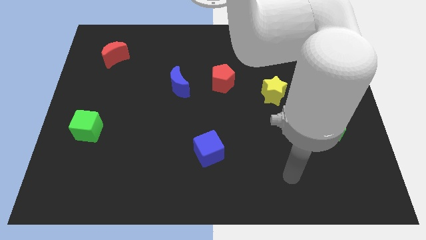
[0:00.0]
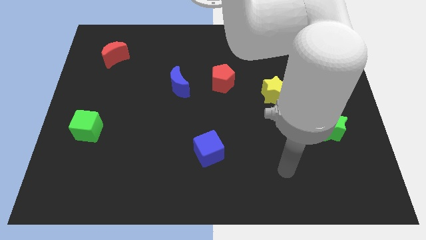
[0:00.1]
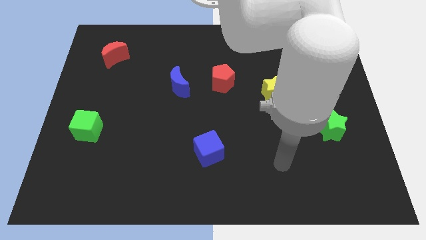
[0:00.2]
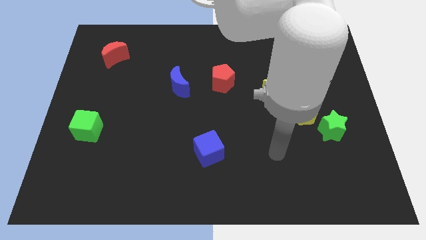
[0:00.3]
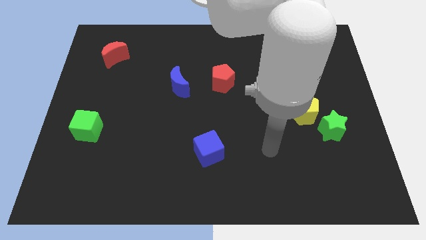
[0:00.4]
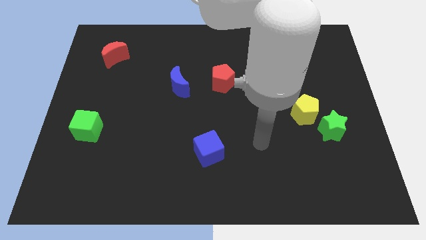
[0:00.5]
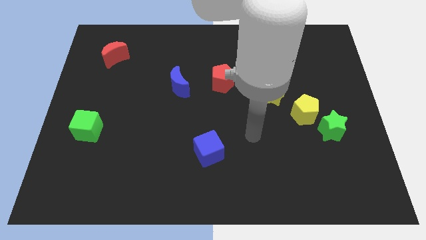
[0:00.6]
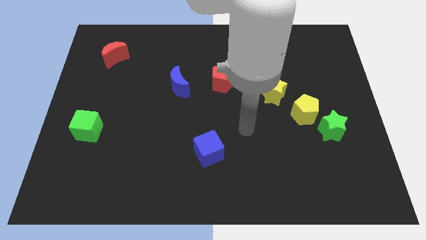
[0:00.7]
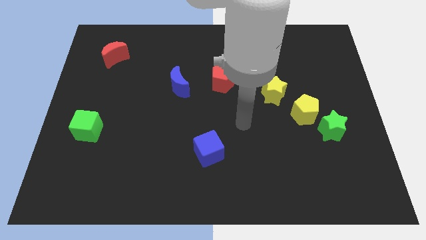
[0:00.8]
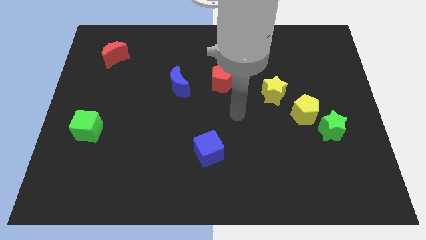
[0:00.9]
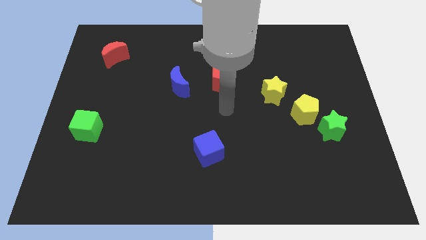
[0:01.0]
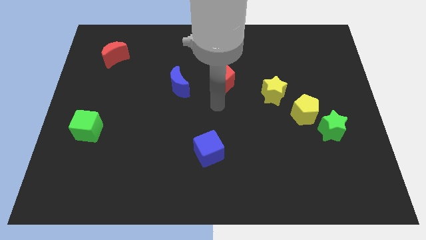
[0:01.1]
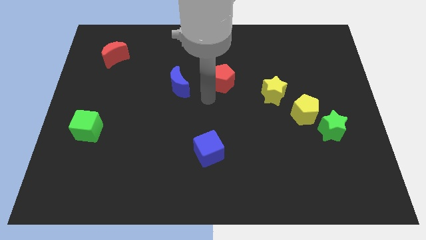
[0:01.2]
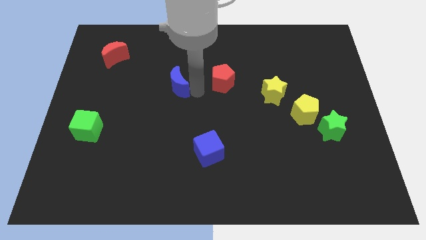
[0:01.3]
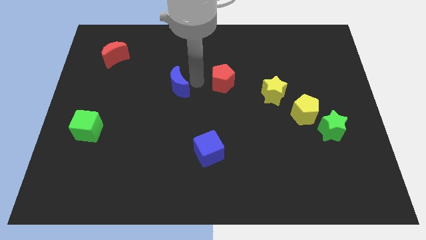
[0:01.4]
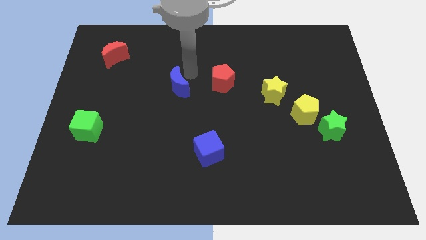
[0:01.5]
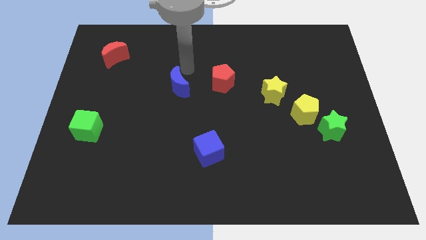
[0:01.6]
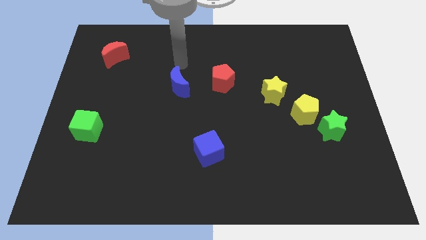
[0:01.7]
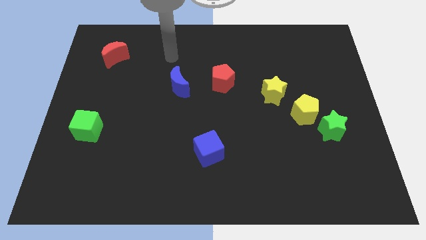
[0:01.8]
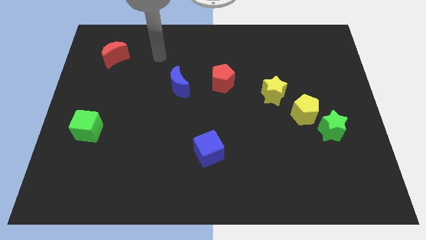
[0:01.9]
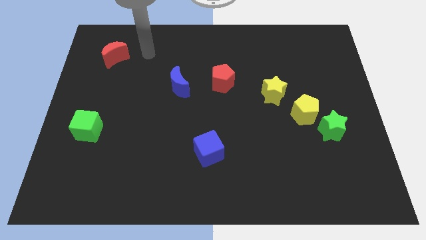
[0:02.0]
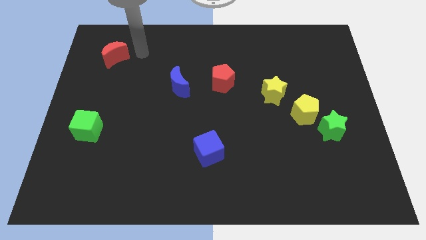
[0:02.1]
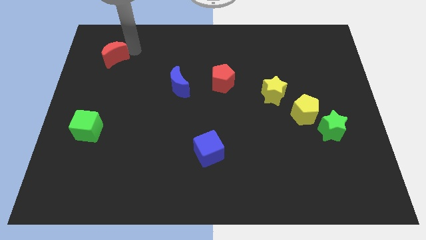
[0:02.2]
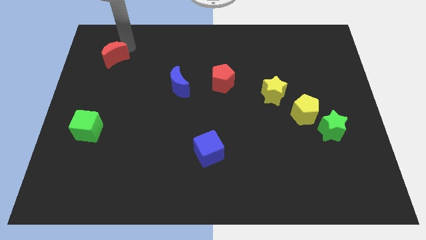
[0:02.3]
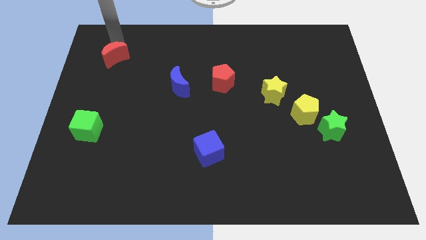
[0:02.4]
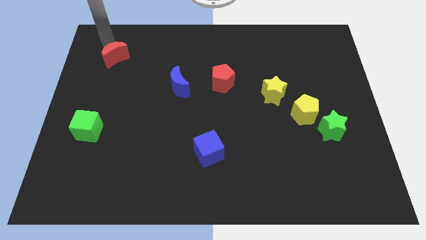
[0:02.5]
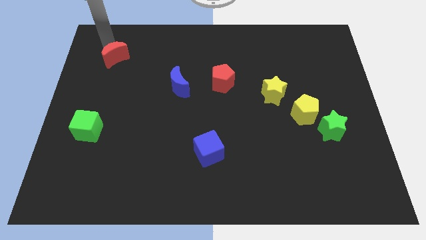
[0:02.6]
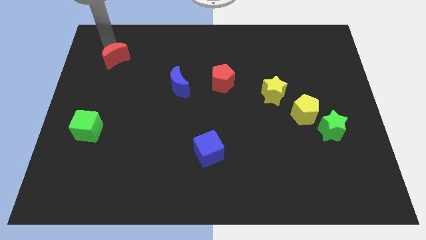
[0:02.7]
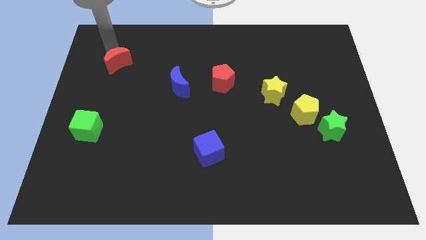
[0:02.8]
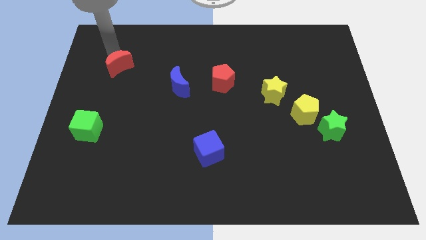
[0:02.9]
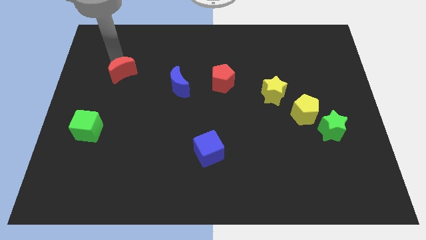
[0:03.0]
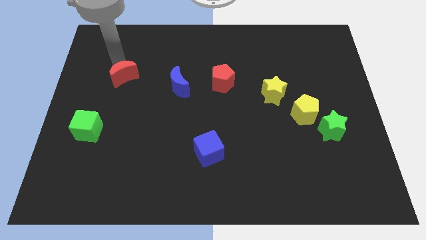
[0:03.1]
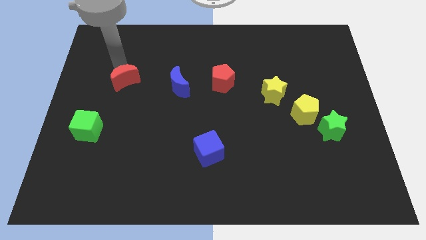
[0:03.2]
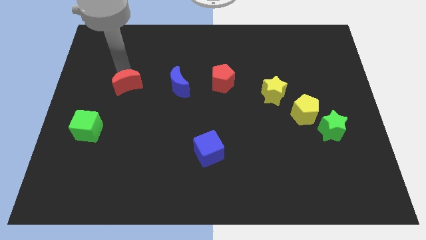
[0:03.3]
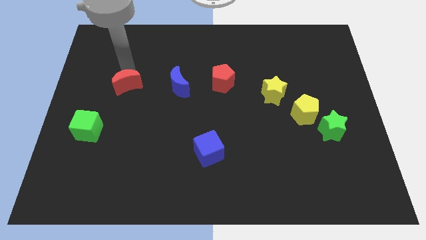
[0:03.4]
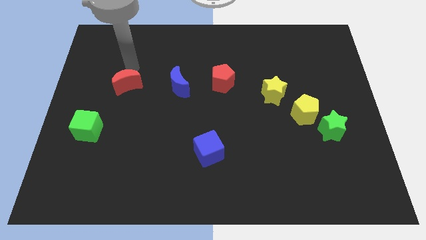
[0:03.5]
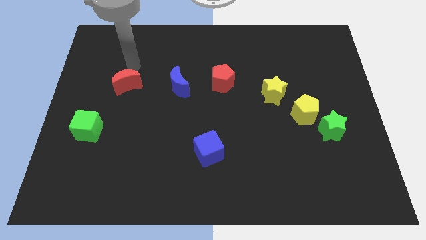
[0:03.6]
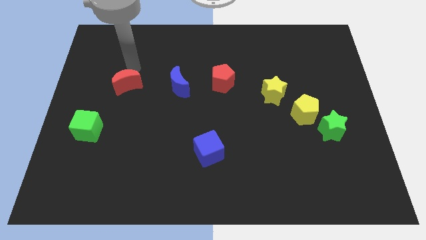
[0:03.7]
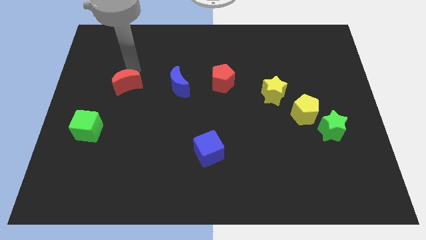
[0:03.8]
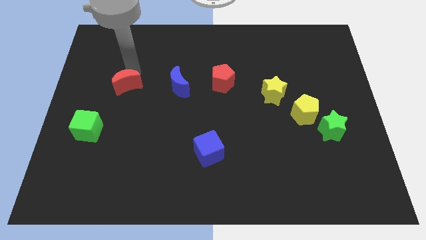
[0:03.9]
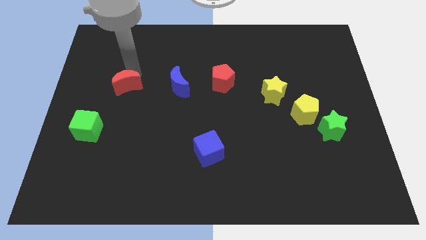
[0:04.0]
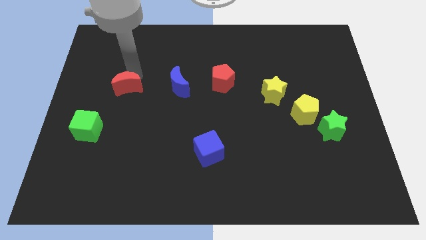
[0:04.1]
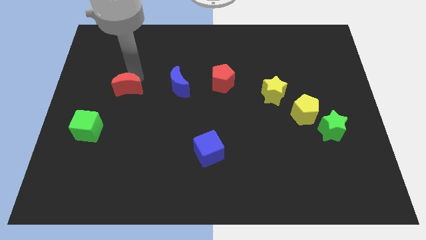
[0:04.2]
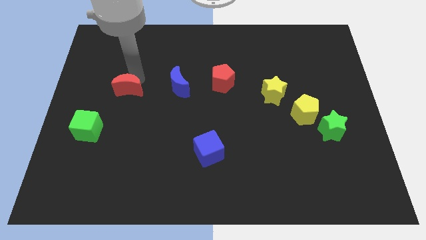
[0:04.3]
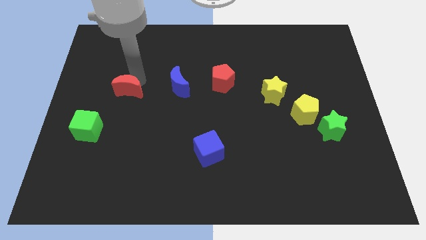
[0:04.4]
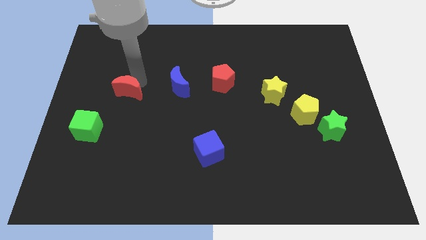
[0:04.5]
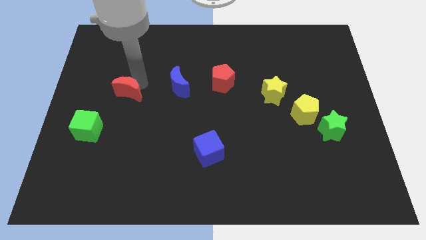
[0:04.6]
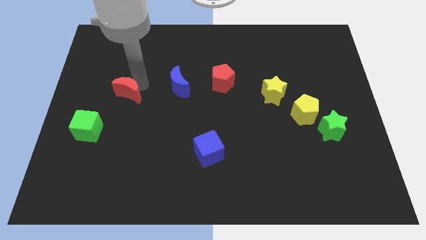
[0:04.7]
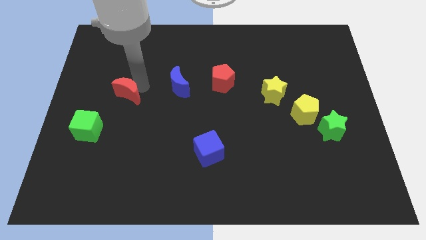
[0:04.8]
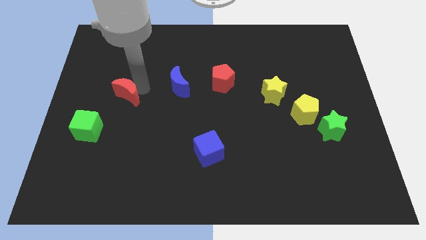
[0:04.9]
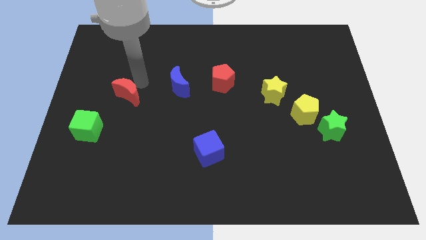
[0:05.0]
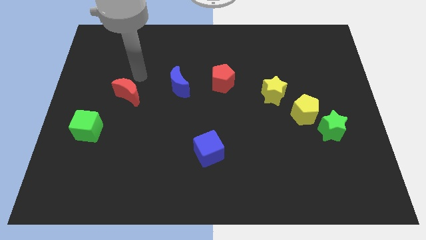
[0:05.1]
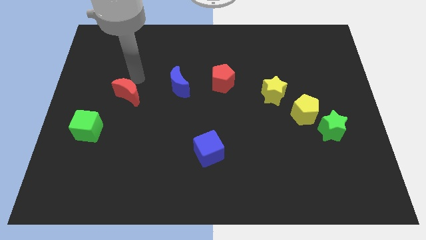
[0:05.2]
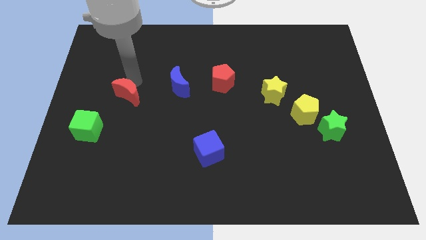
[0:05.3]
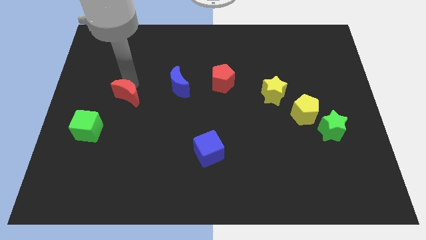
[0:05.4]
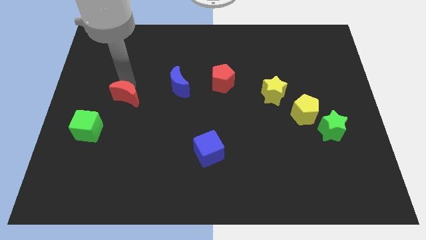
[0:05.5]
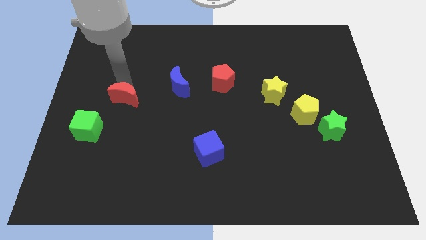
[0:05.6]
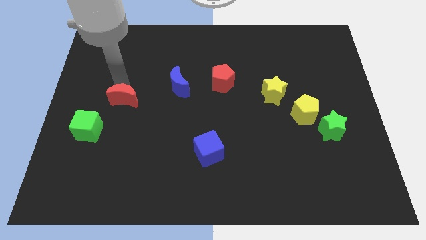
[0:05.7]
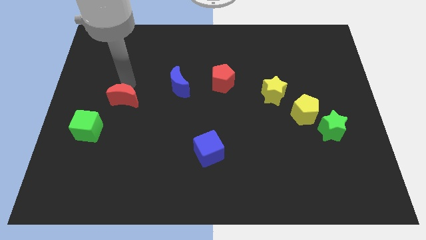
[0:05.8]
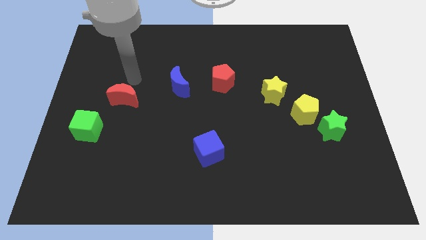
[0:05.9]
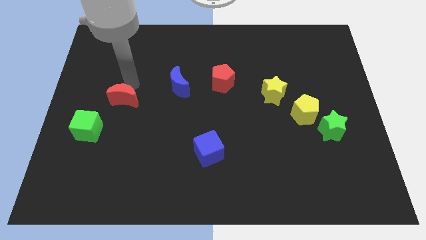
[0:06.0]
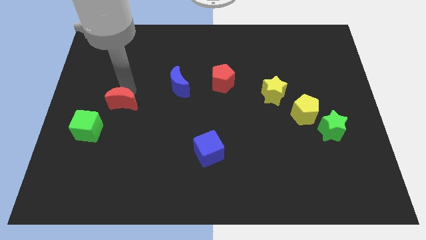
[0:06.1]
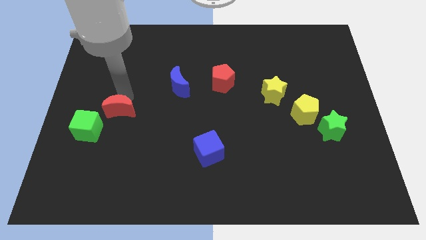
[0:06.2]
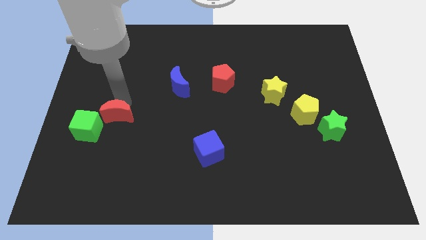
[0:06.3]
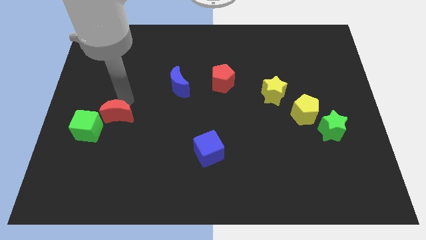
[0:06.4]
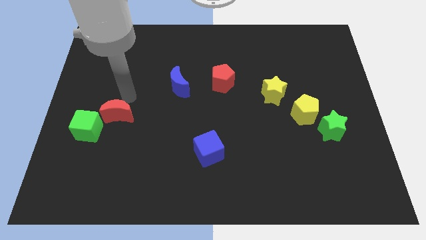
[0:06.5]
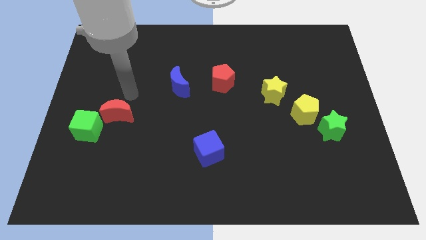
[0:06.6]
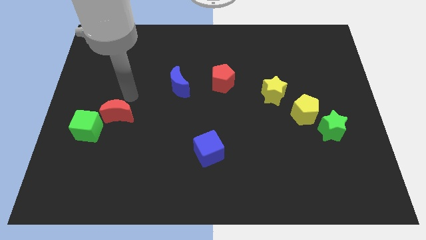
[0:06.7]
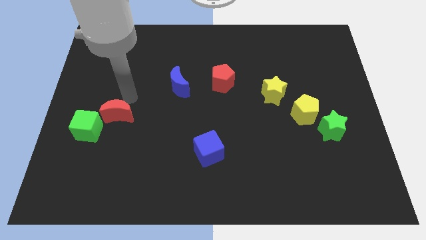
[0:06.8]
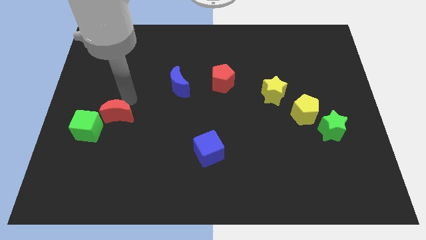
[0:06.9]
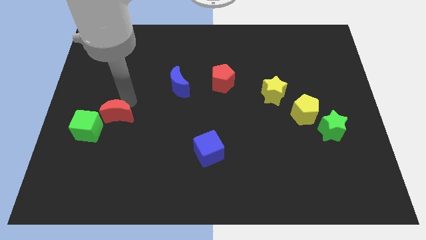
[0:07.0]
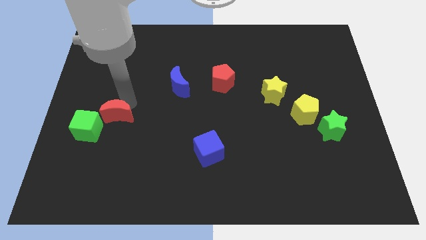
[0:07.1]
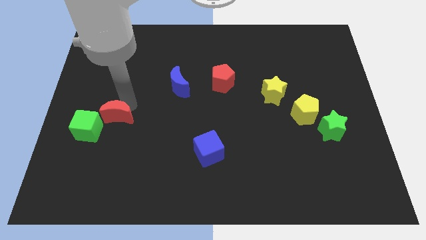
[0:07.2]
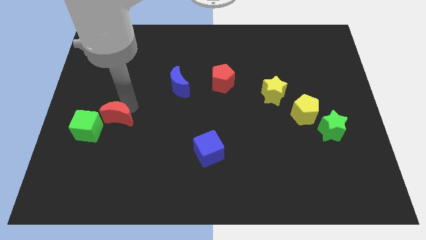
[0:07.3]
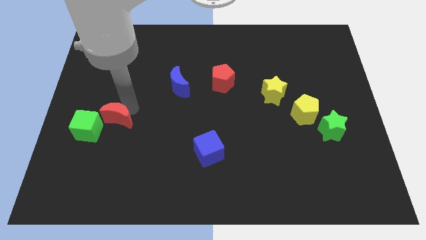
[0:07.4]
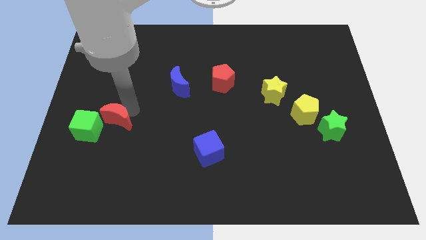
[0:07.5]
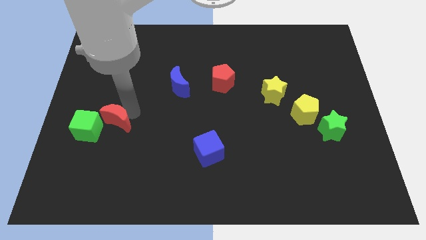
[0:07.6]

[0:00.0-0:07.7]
slide the red moon down
